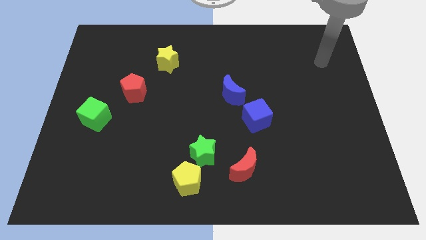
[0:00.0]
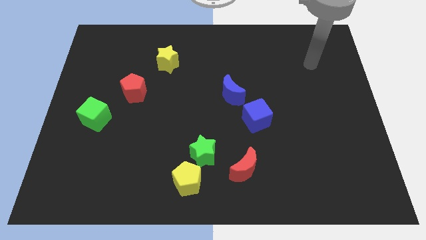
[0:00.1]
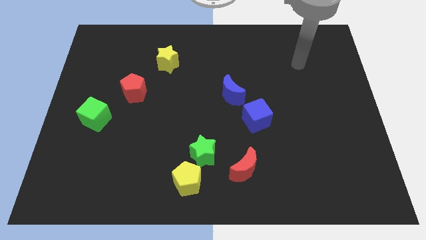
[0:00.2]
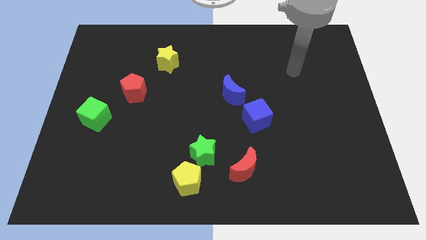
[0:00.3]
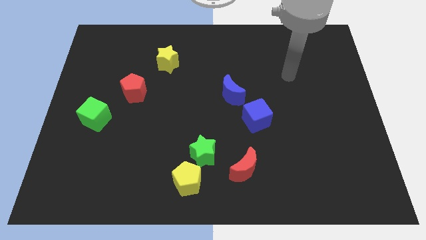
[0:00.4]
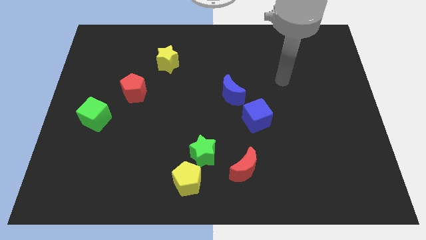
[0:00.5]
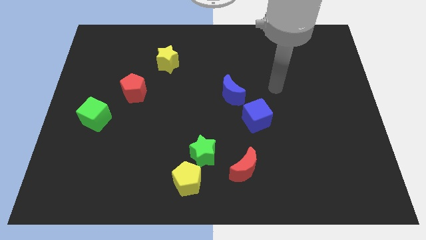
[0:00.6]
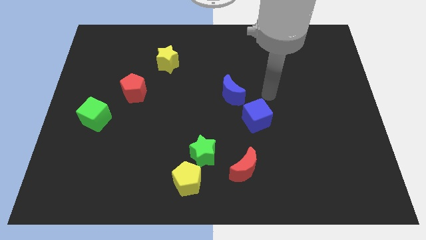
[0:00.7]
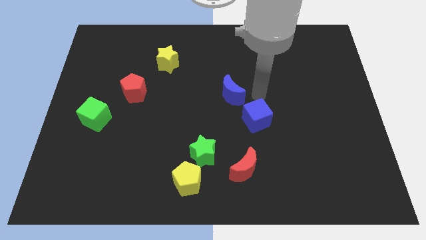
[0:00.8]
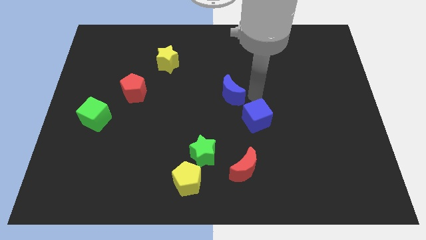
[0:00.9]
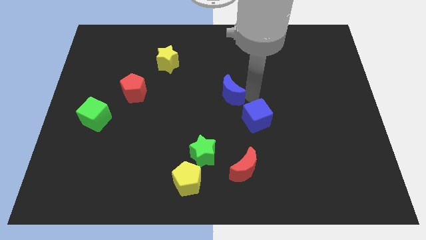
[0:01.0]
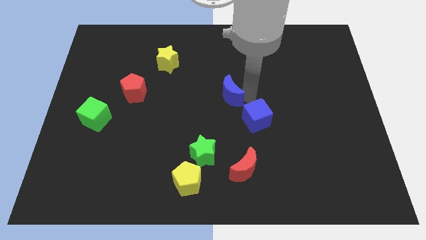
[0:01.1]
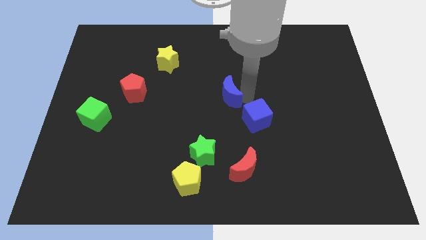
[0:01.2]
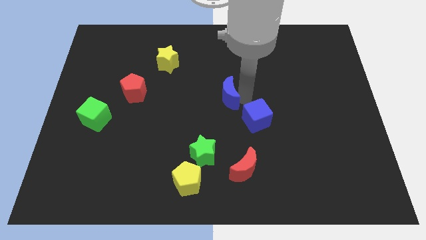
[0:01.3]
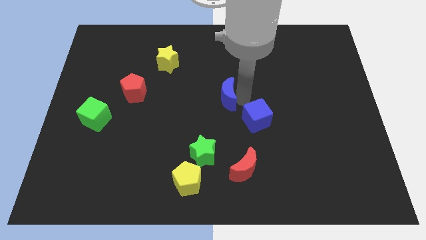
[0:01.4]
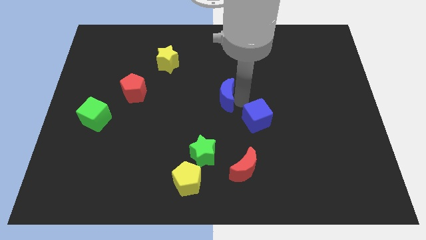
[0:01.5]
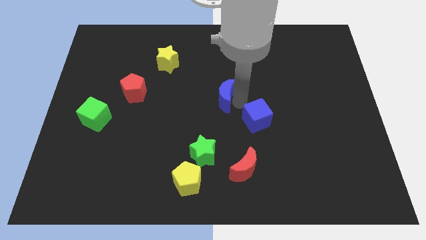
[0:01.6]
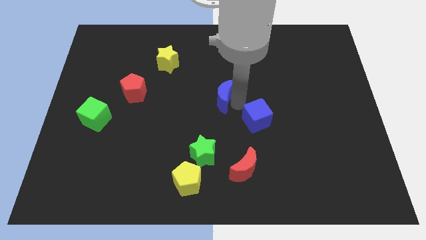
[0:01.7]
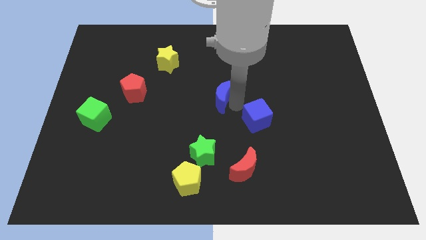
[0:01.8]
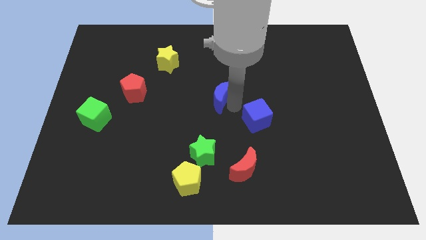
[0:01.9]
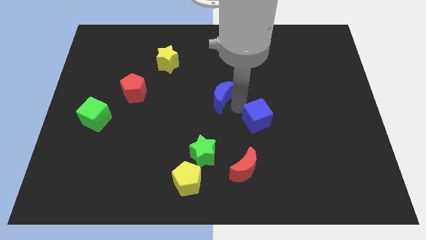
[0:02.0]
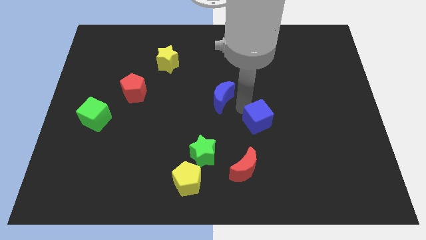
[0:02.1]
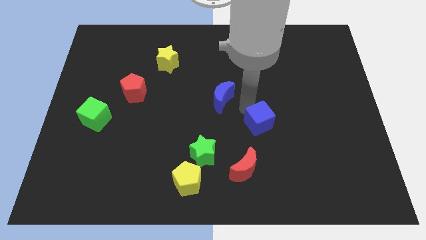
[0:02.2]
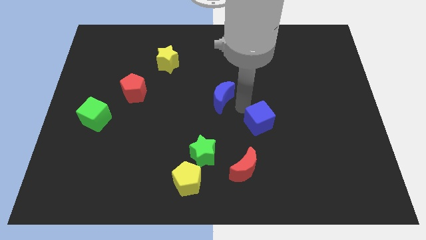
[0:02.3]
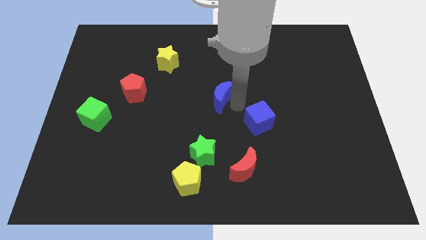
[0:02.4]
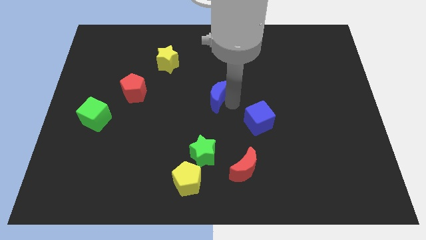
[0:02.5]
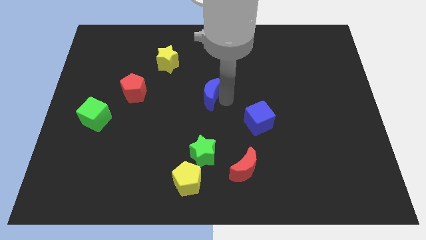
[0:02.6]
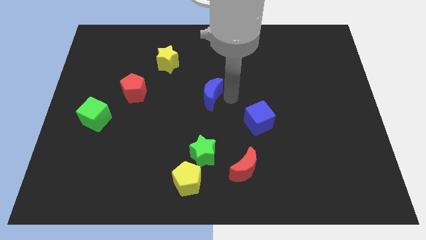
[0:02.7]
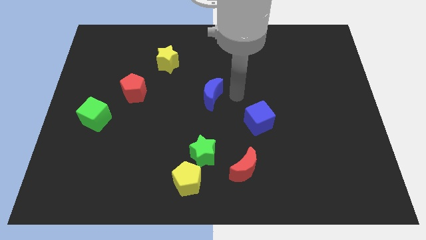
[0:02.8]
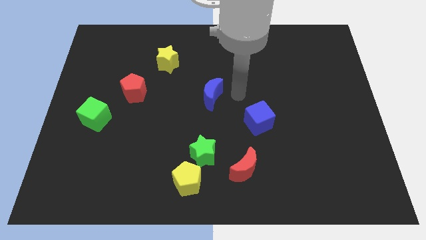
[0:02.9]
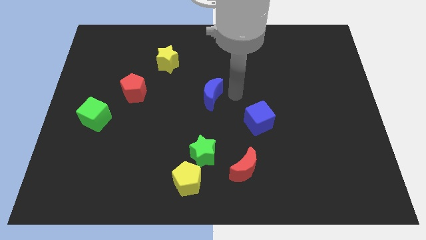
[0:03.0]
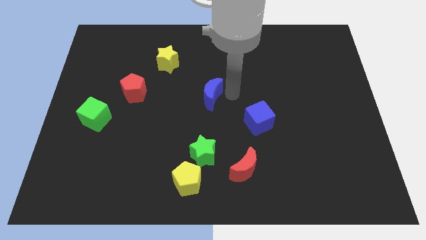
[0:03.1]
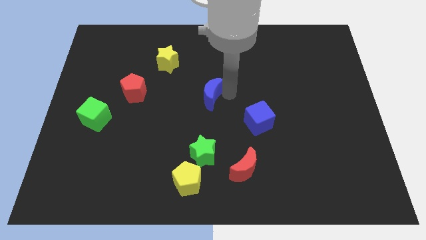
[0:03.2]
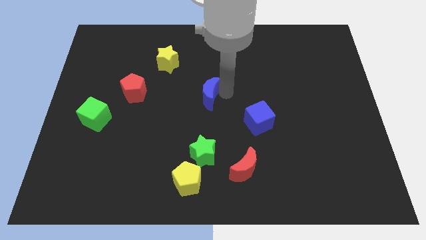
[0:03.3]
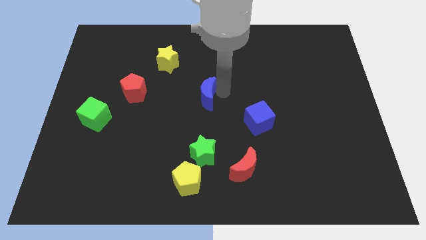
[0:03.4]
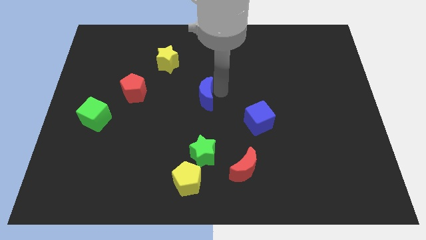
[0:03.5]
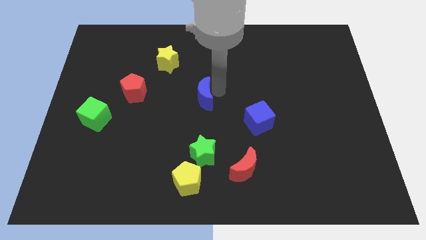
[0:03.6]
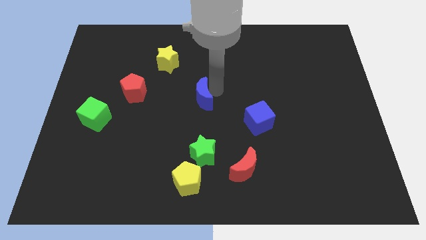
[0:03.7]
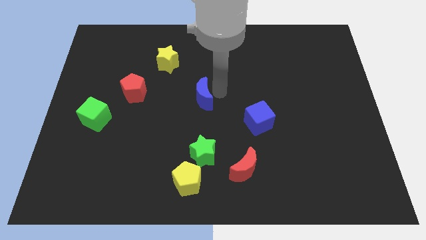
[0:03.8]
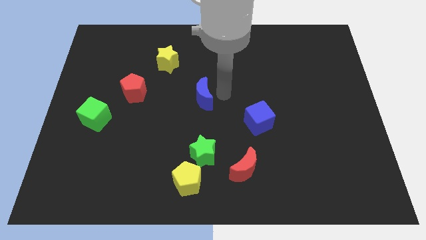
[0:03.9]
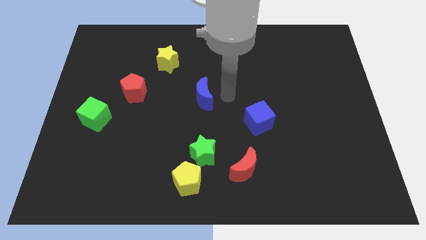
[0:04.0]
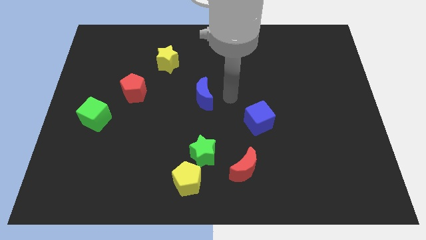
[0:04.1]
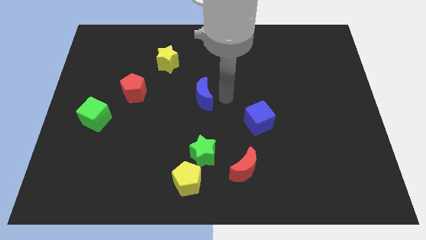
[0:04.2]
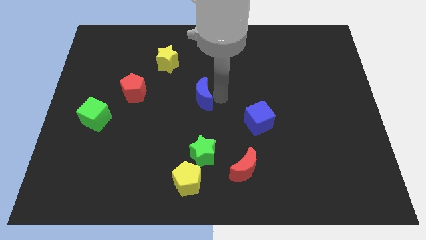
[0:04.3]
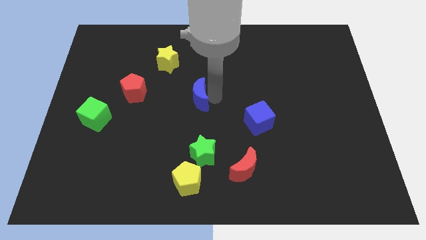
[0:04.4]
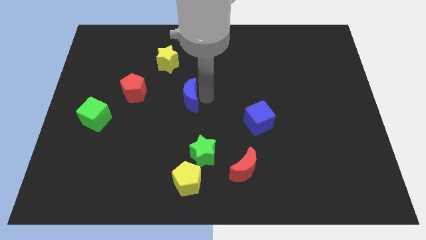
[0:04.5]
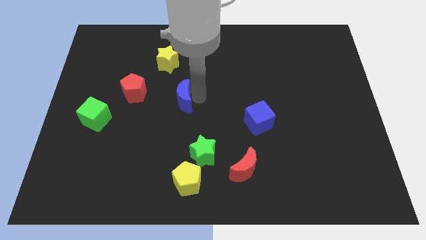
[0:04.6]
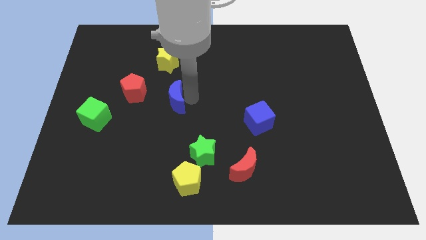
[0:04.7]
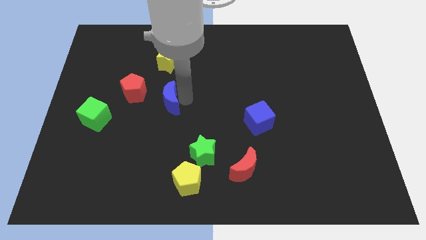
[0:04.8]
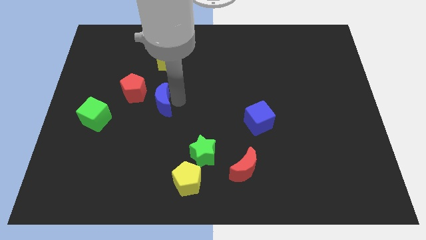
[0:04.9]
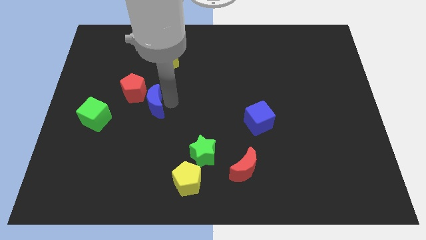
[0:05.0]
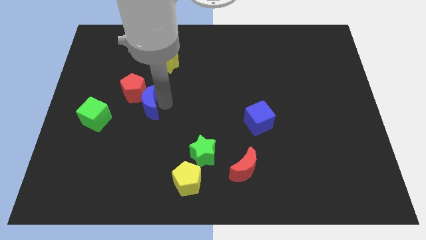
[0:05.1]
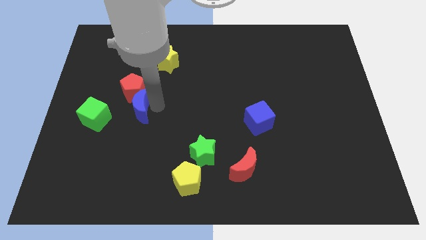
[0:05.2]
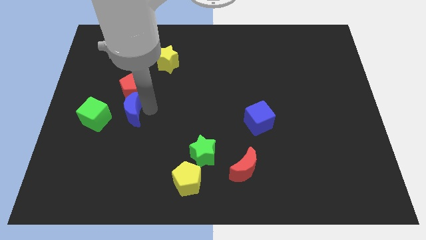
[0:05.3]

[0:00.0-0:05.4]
slide the blue moon diagonally down and to the left of the red pentagon

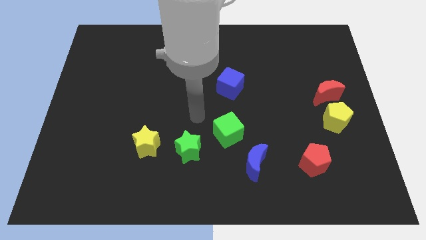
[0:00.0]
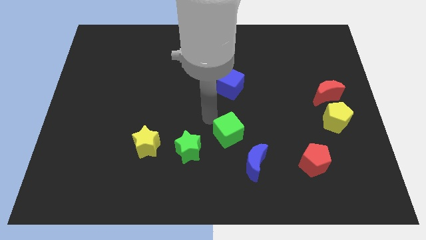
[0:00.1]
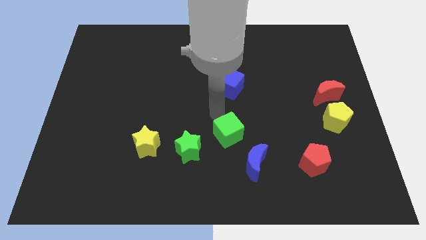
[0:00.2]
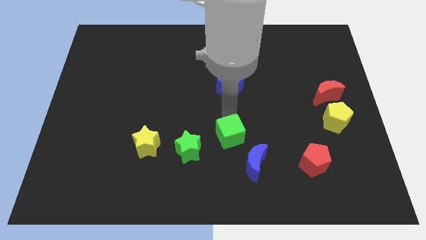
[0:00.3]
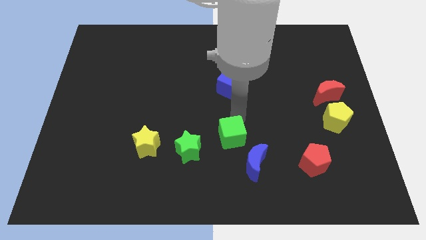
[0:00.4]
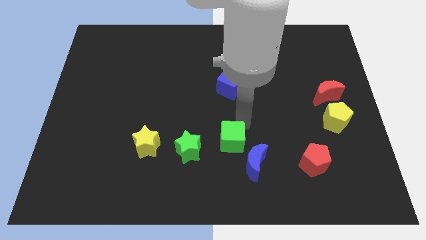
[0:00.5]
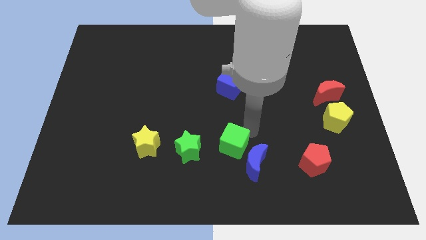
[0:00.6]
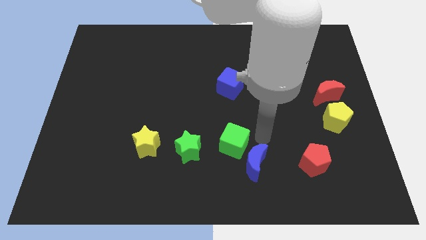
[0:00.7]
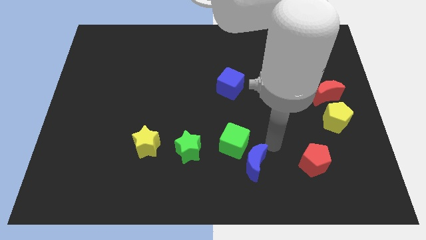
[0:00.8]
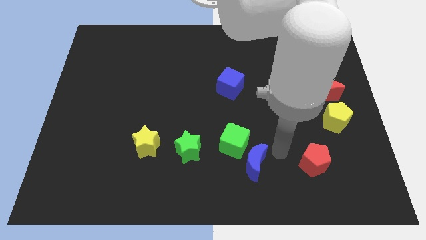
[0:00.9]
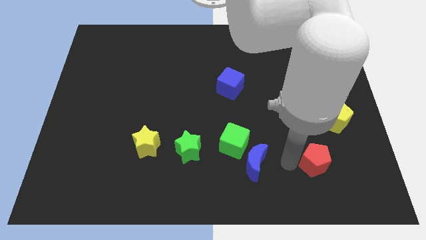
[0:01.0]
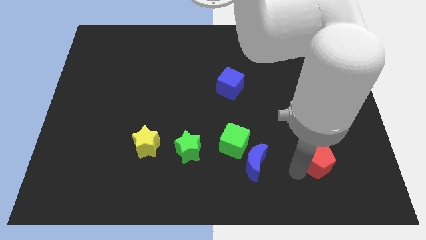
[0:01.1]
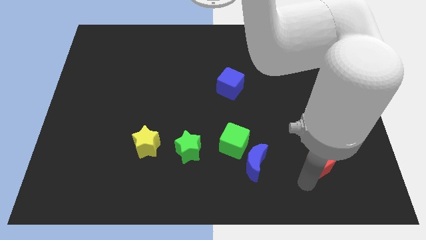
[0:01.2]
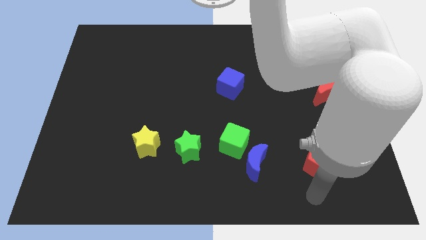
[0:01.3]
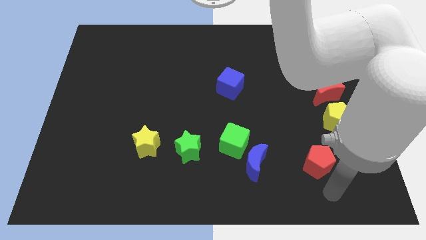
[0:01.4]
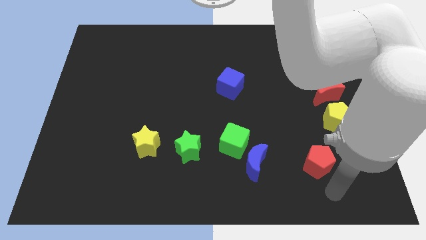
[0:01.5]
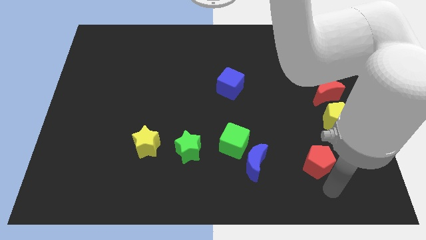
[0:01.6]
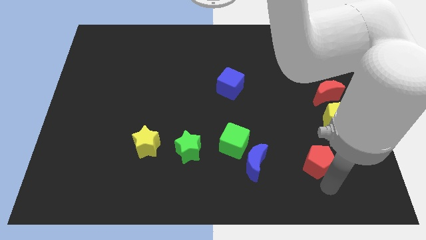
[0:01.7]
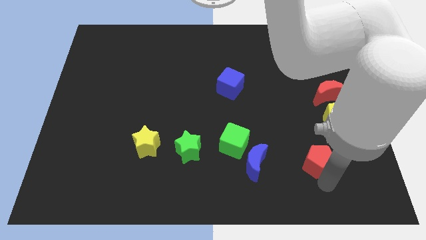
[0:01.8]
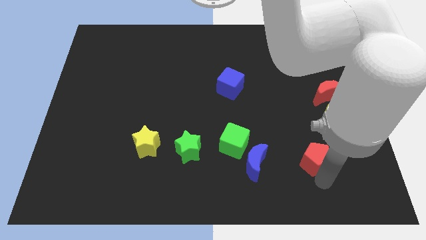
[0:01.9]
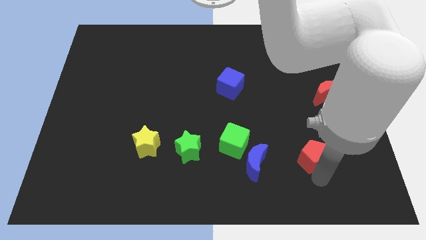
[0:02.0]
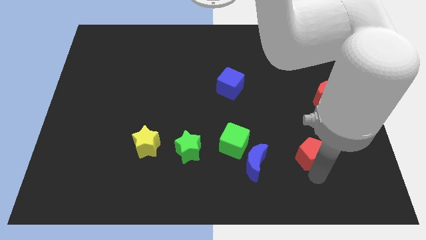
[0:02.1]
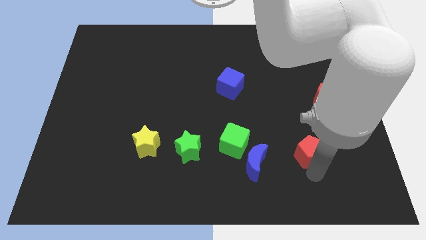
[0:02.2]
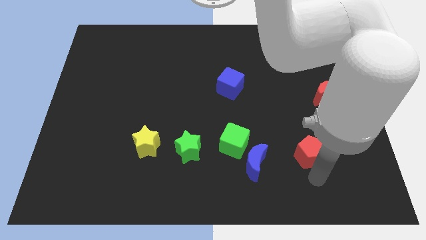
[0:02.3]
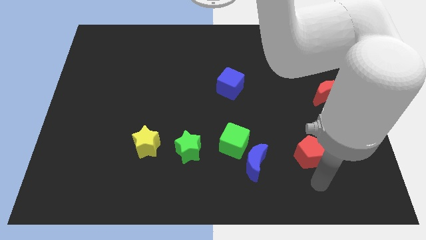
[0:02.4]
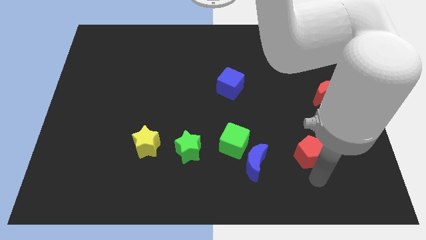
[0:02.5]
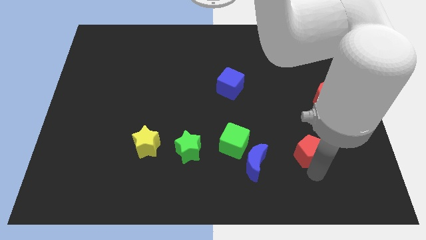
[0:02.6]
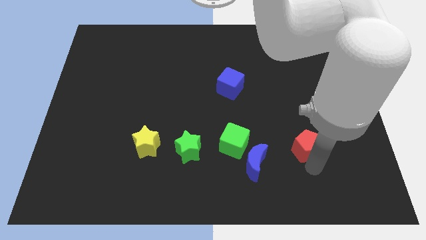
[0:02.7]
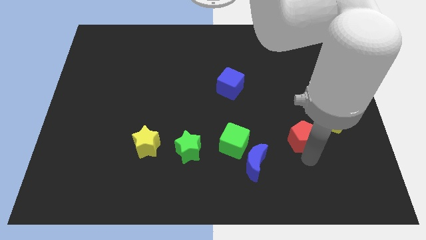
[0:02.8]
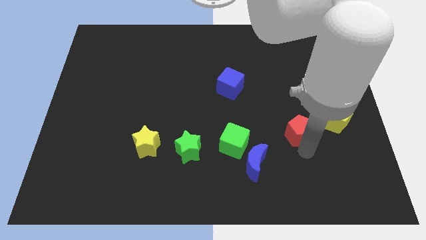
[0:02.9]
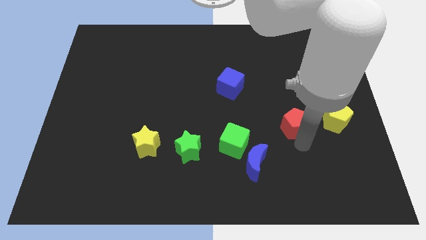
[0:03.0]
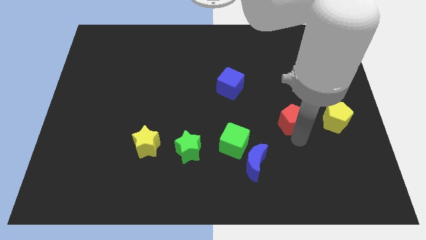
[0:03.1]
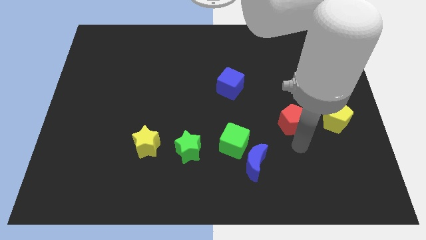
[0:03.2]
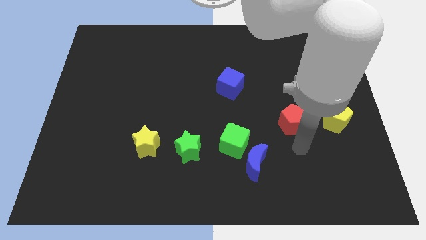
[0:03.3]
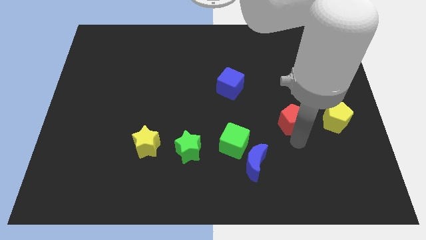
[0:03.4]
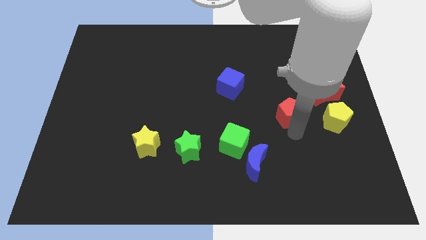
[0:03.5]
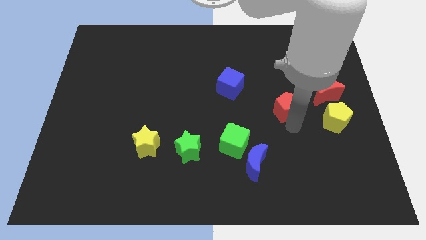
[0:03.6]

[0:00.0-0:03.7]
put the red pentagon left of the red moon
